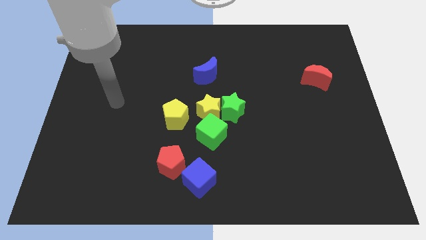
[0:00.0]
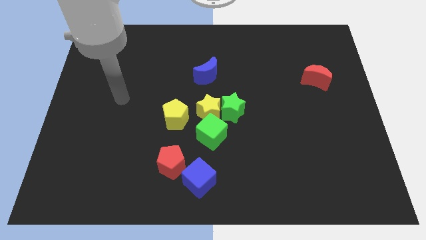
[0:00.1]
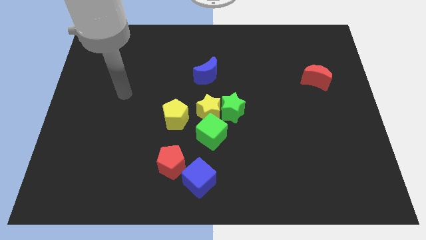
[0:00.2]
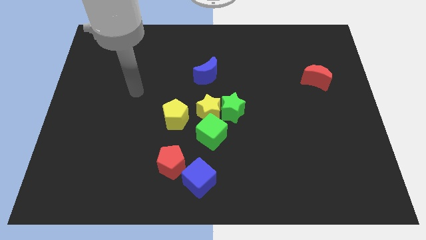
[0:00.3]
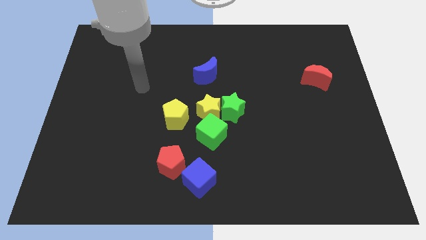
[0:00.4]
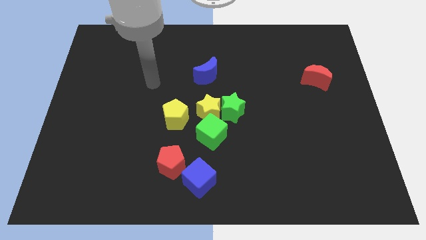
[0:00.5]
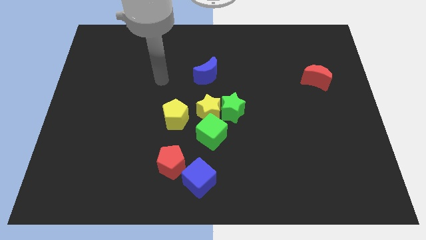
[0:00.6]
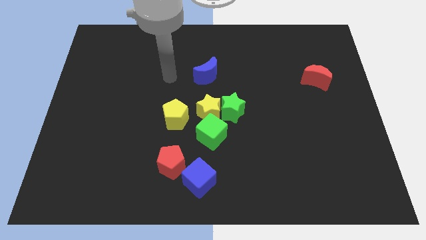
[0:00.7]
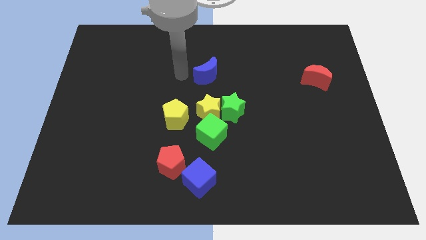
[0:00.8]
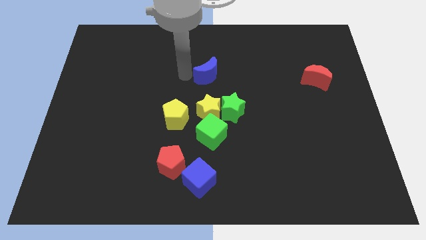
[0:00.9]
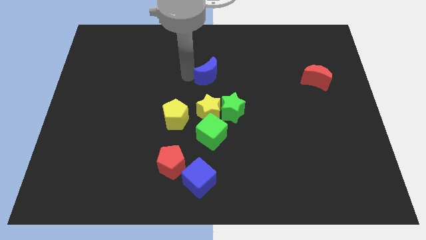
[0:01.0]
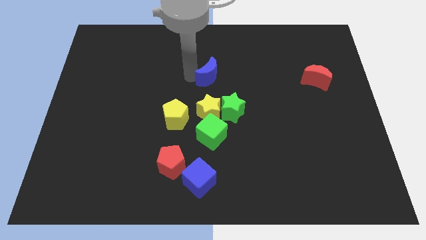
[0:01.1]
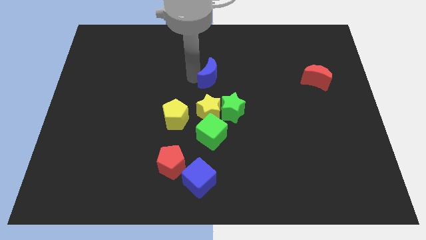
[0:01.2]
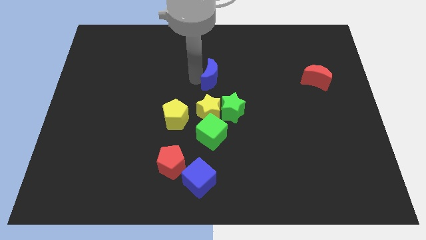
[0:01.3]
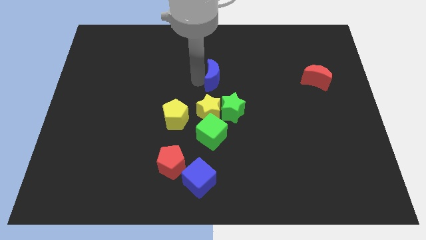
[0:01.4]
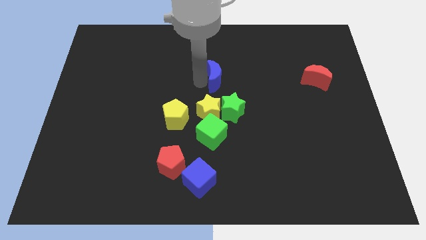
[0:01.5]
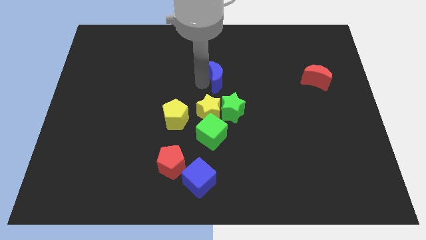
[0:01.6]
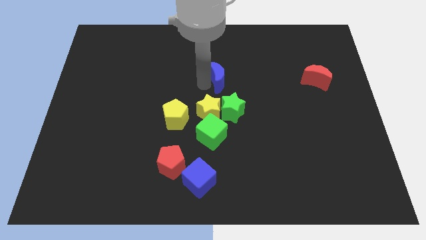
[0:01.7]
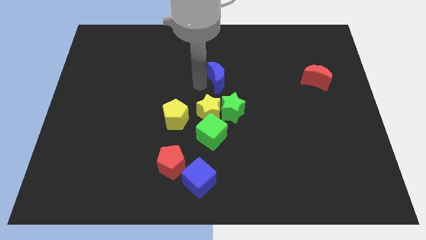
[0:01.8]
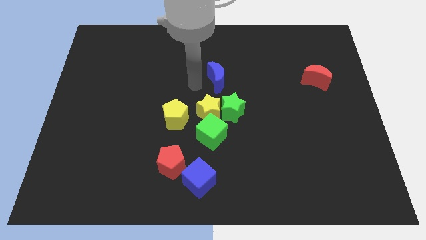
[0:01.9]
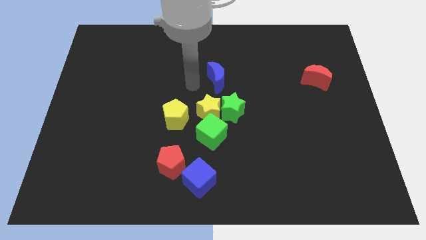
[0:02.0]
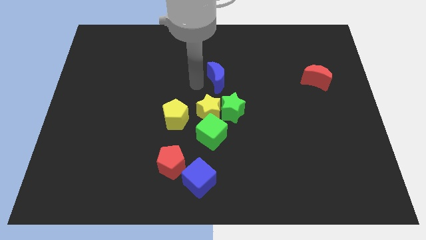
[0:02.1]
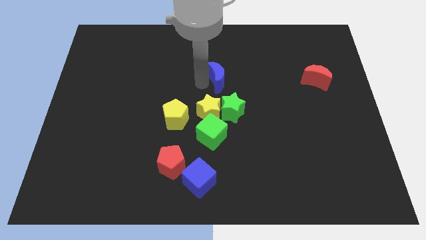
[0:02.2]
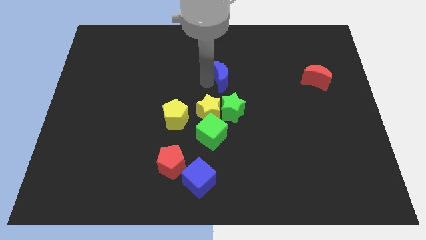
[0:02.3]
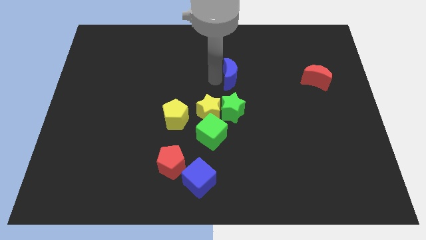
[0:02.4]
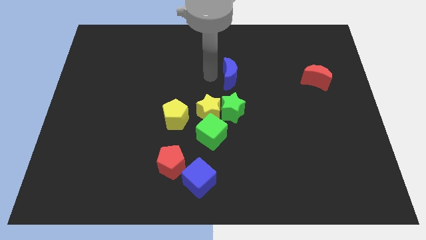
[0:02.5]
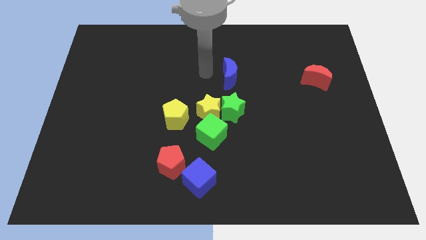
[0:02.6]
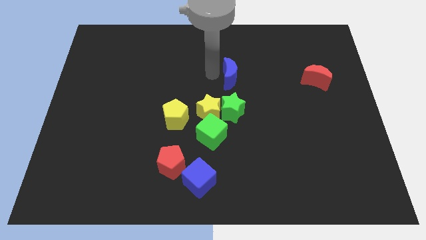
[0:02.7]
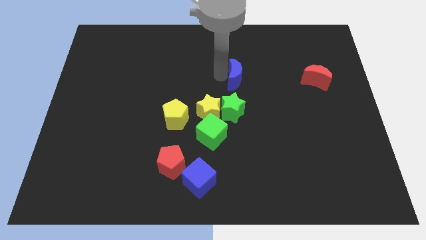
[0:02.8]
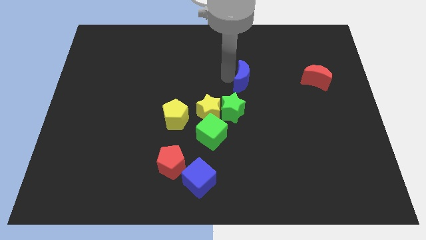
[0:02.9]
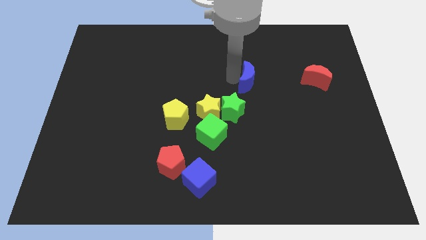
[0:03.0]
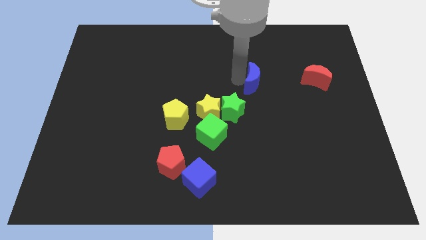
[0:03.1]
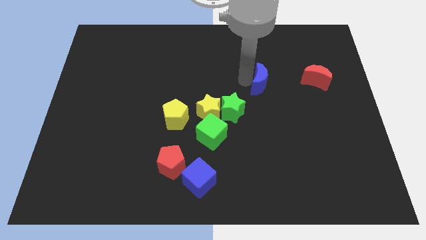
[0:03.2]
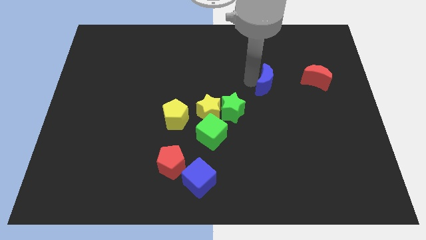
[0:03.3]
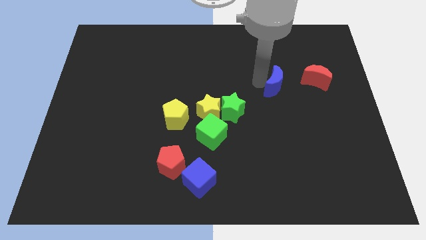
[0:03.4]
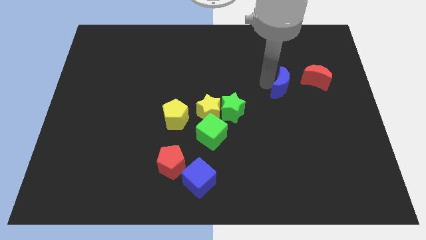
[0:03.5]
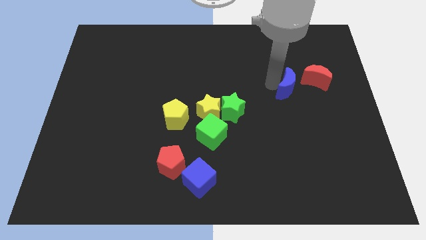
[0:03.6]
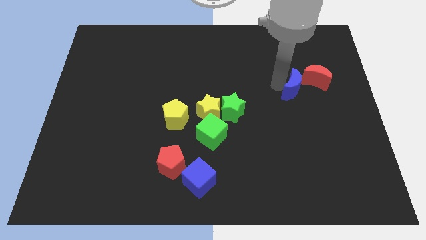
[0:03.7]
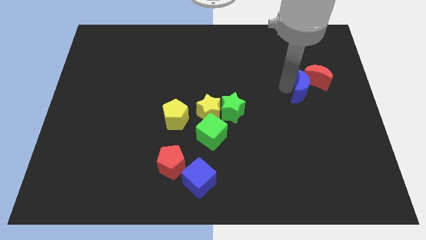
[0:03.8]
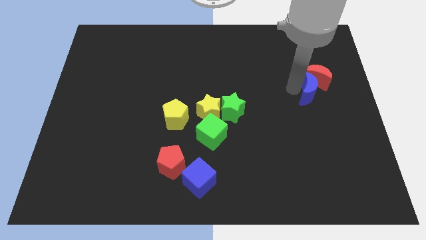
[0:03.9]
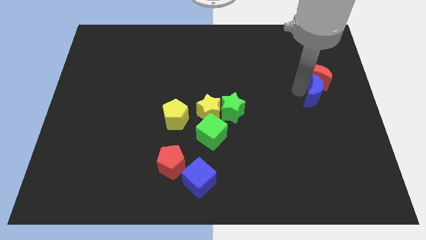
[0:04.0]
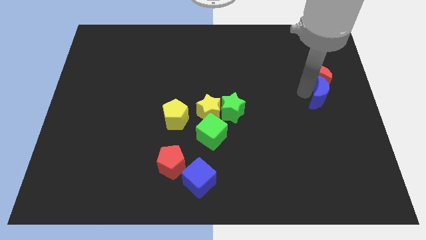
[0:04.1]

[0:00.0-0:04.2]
push the blue moon to the center right

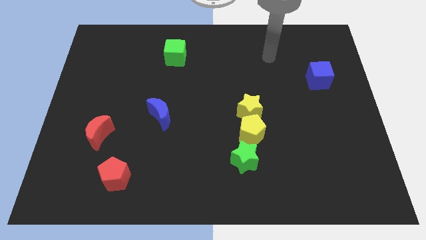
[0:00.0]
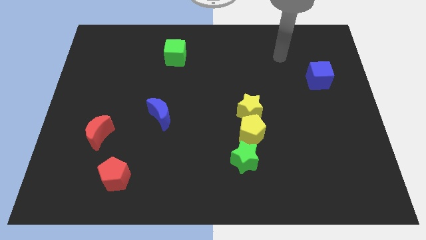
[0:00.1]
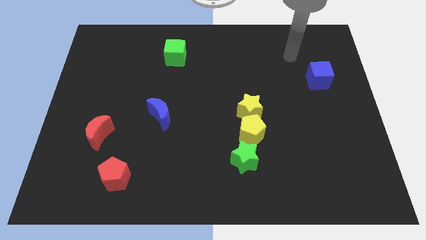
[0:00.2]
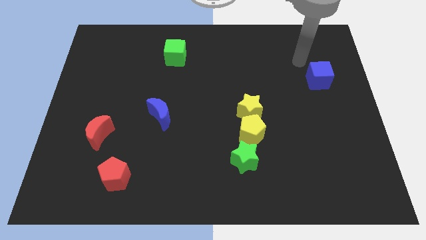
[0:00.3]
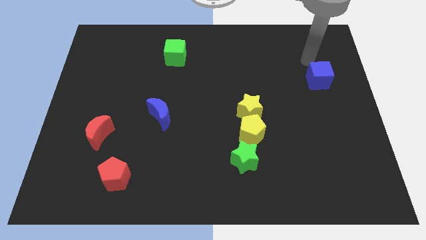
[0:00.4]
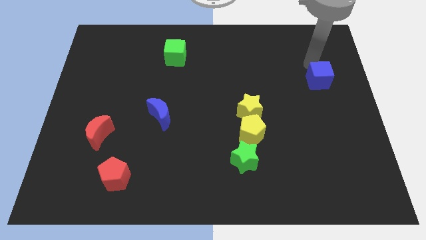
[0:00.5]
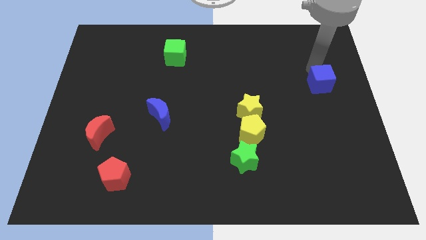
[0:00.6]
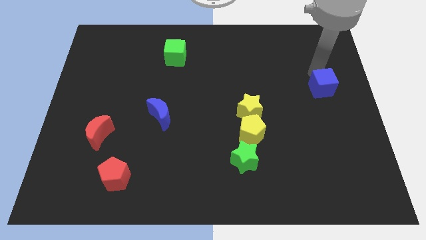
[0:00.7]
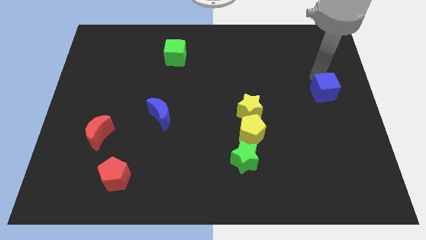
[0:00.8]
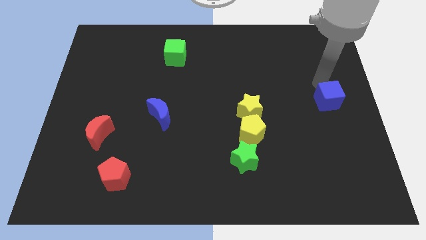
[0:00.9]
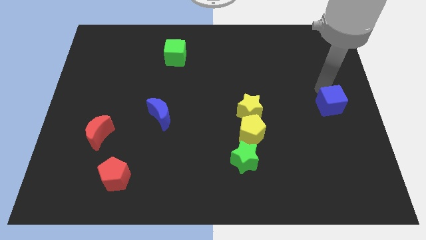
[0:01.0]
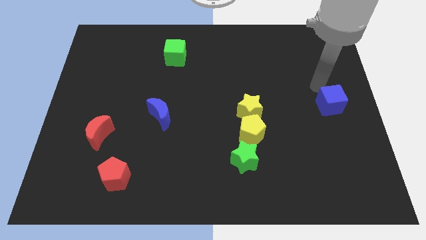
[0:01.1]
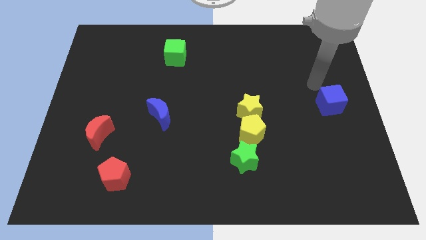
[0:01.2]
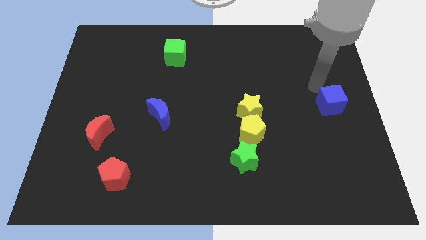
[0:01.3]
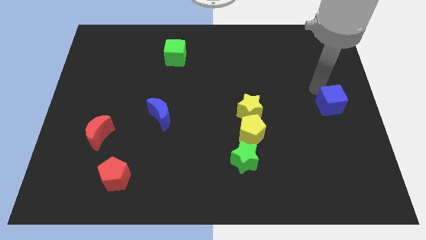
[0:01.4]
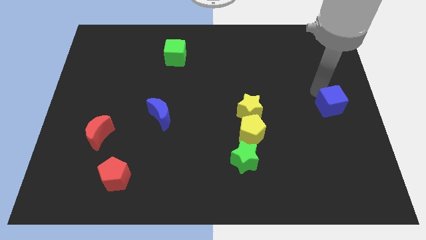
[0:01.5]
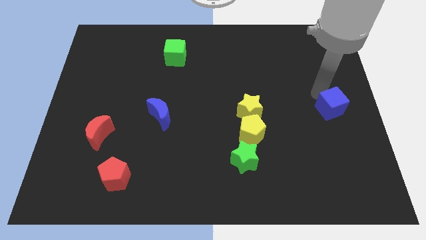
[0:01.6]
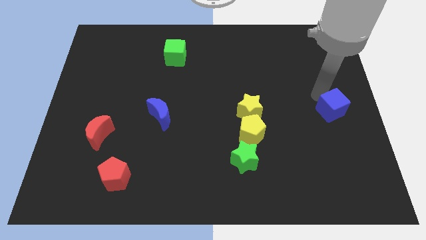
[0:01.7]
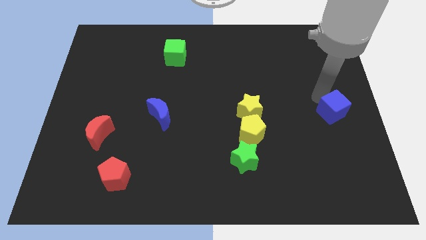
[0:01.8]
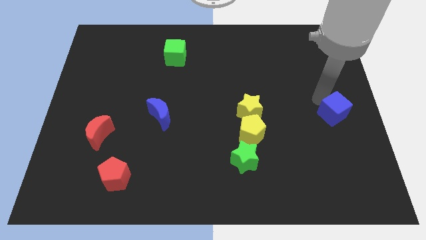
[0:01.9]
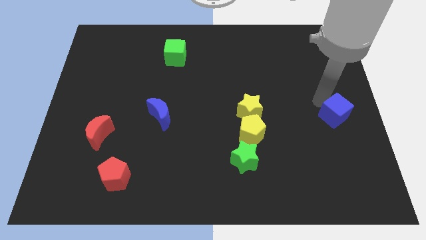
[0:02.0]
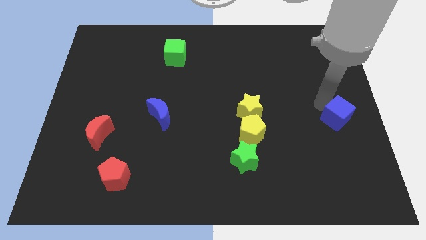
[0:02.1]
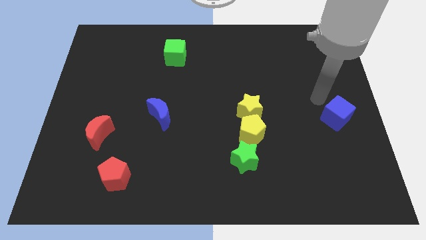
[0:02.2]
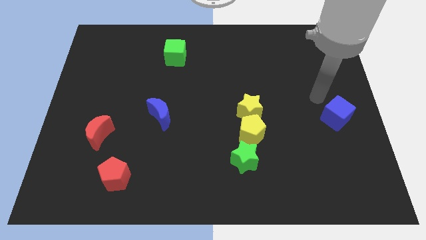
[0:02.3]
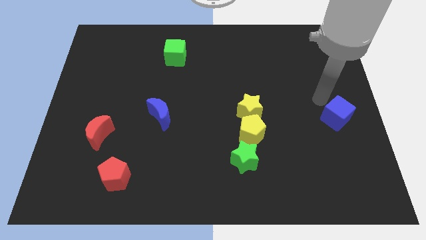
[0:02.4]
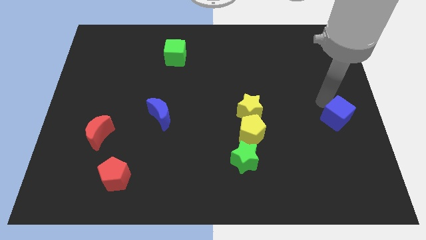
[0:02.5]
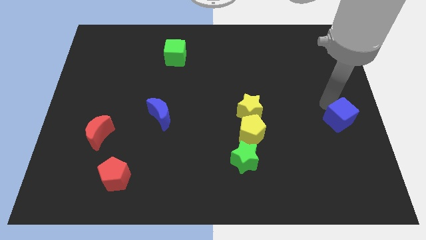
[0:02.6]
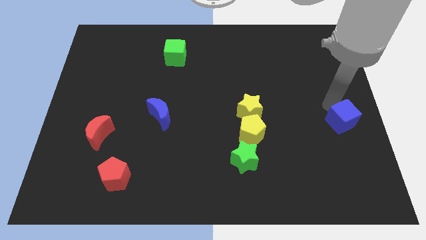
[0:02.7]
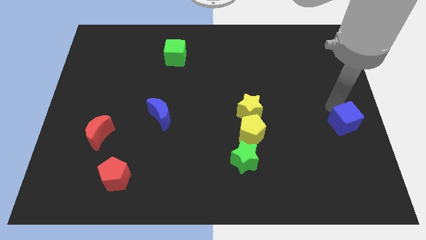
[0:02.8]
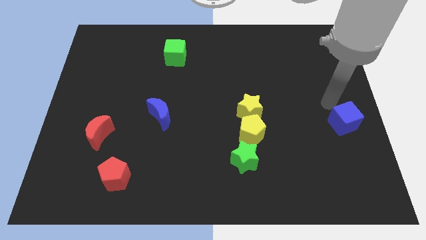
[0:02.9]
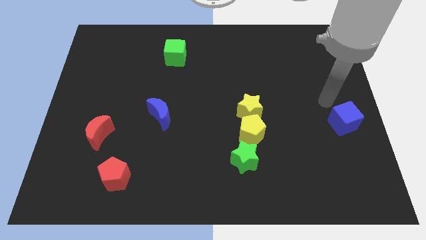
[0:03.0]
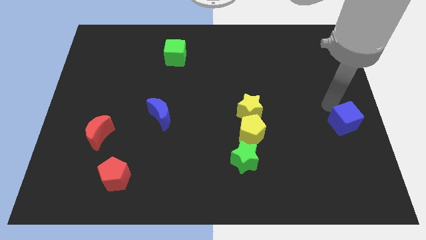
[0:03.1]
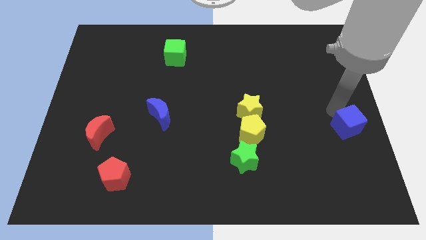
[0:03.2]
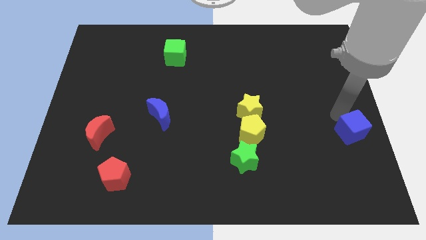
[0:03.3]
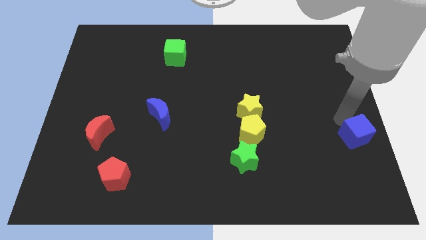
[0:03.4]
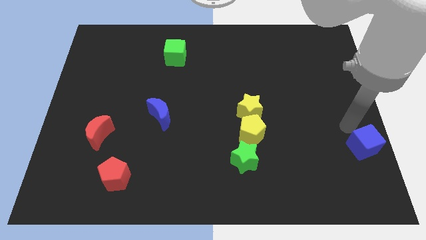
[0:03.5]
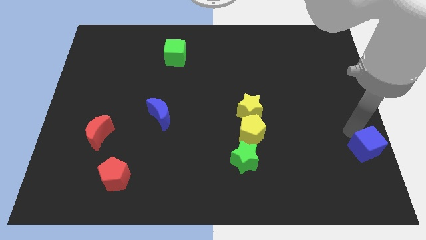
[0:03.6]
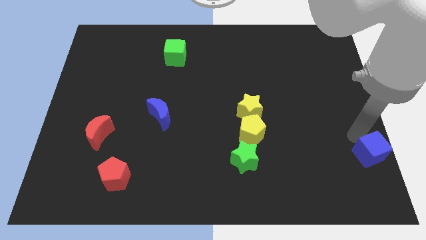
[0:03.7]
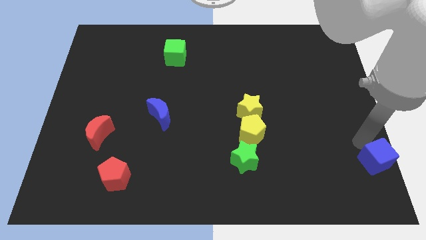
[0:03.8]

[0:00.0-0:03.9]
move the blue cube to the bottom right of the board
